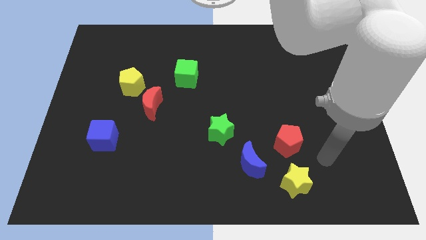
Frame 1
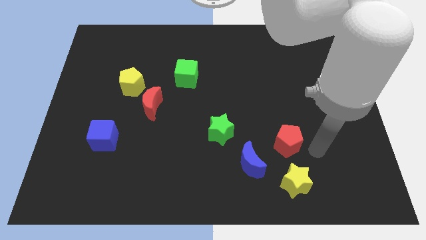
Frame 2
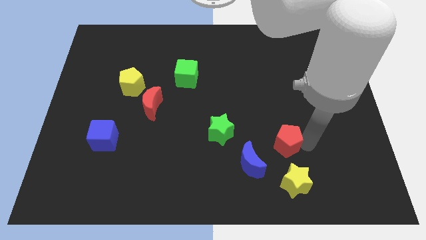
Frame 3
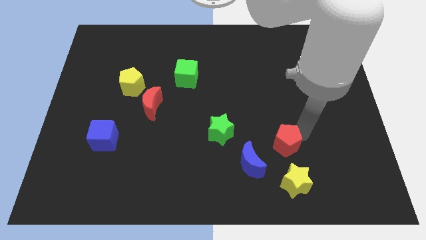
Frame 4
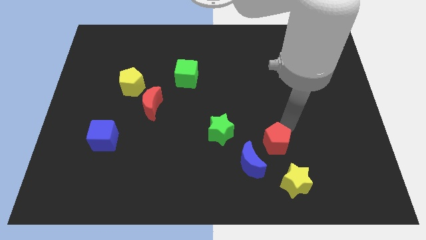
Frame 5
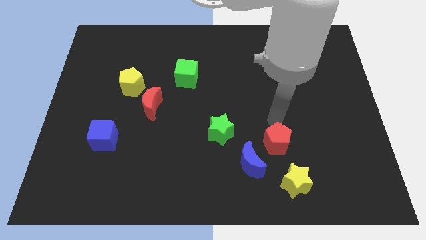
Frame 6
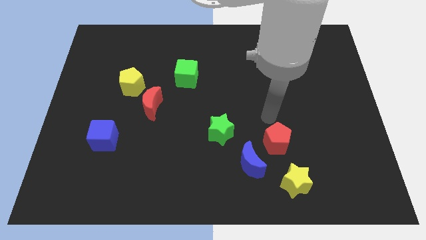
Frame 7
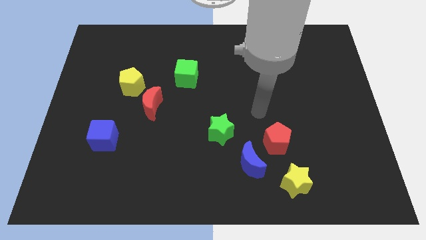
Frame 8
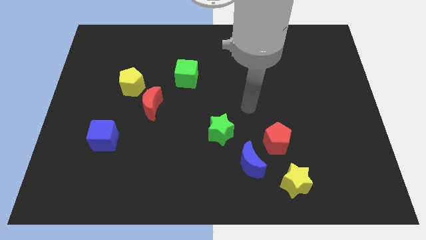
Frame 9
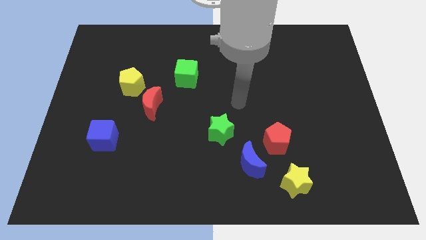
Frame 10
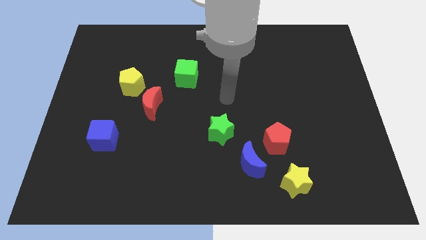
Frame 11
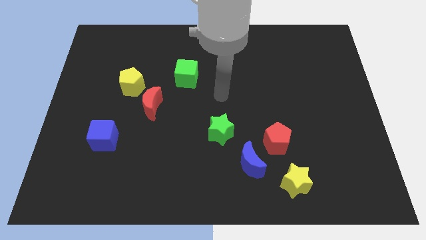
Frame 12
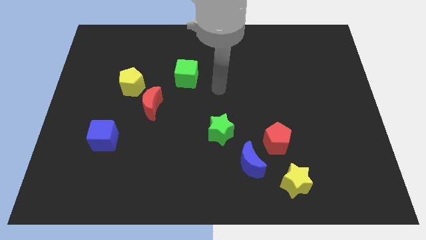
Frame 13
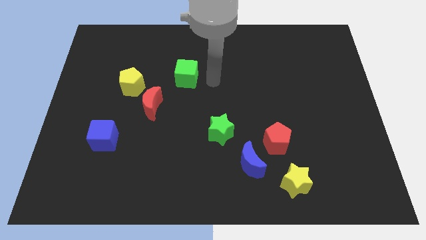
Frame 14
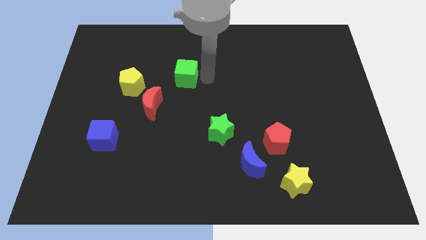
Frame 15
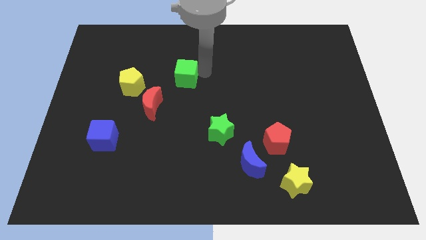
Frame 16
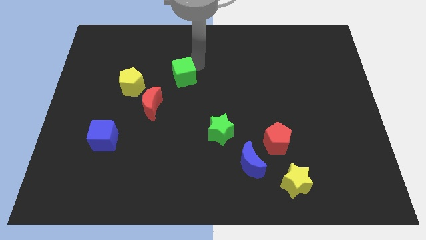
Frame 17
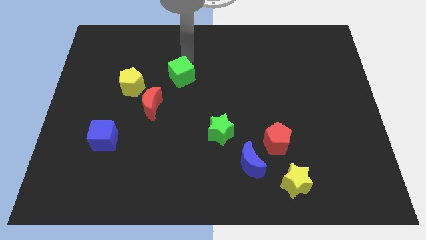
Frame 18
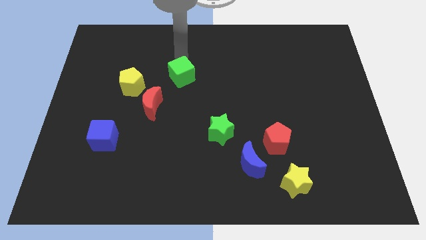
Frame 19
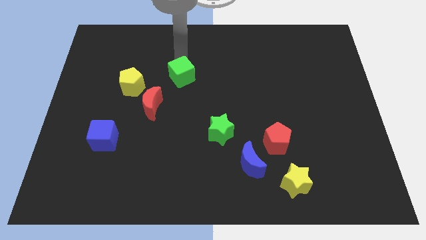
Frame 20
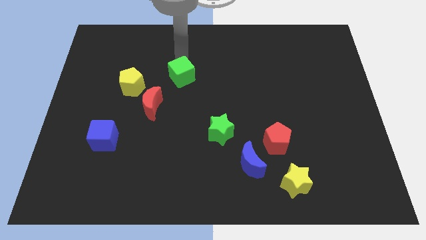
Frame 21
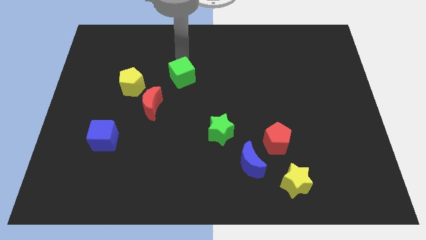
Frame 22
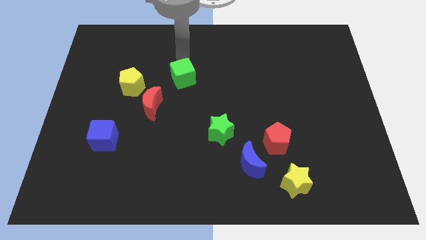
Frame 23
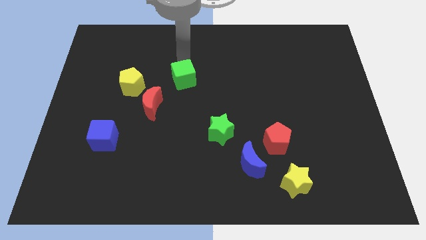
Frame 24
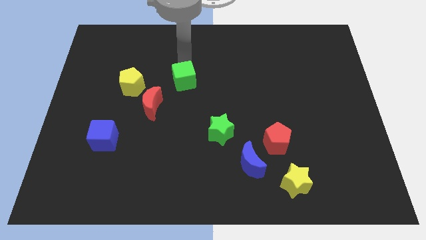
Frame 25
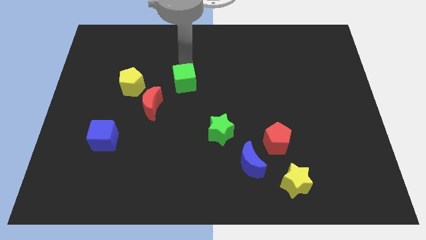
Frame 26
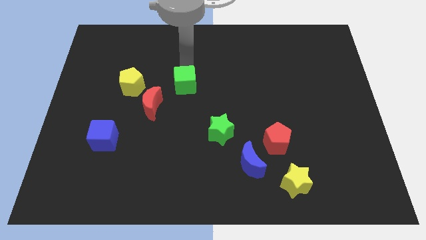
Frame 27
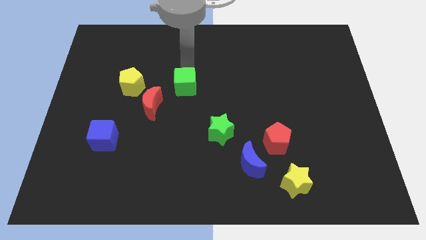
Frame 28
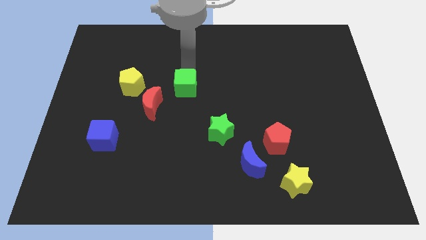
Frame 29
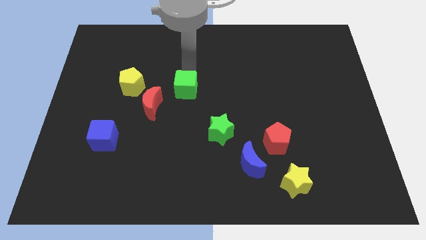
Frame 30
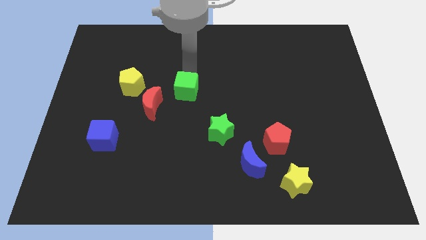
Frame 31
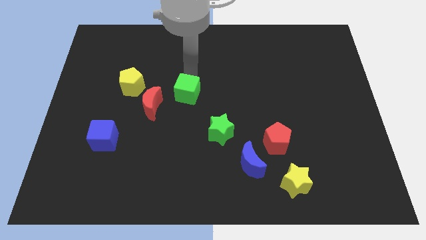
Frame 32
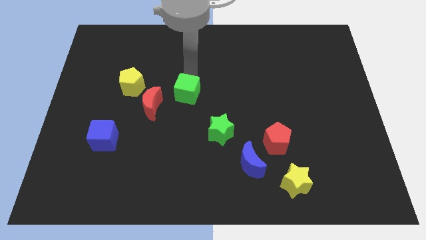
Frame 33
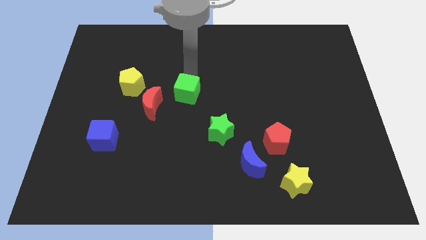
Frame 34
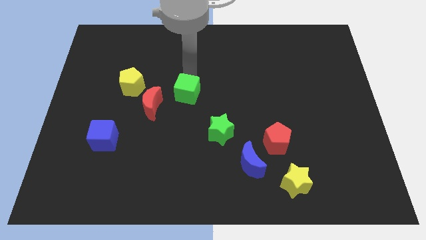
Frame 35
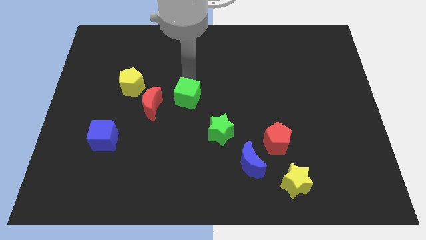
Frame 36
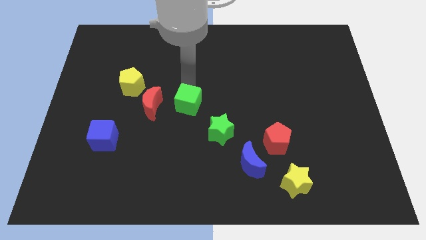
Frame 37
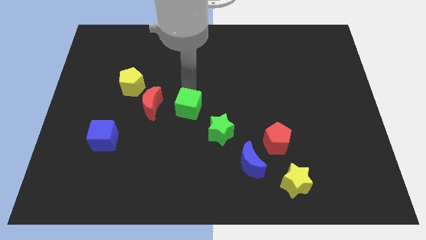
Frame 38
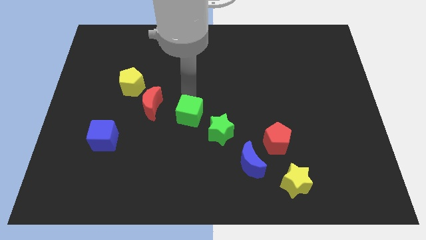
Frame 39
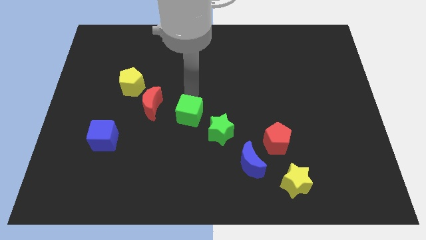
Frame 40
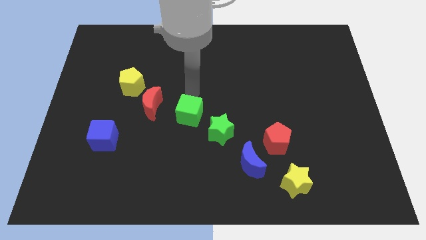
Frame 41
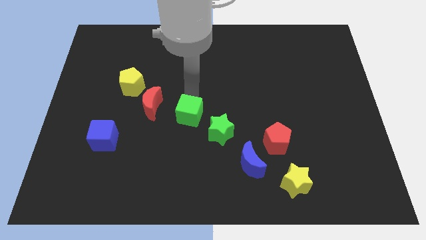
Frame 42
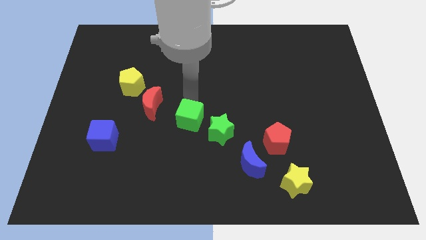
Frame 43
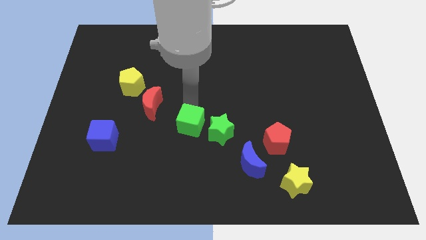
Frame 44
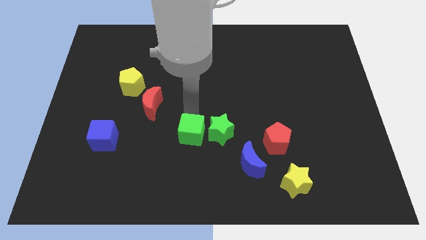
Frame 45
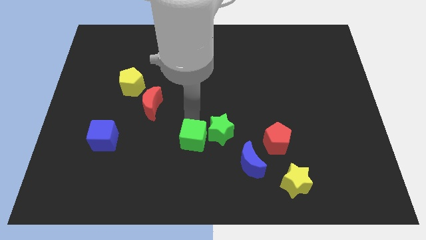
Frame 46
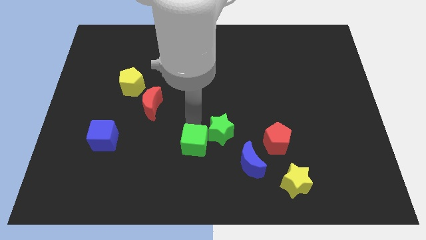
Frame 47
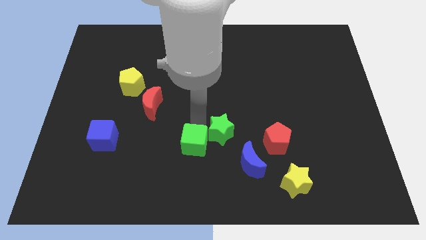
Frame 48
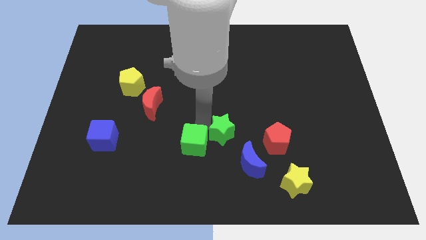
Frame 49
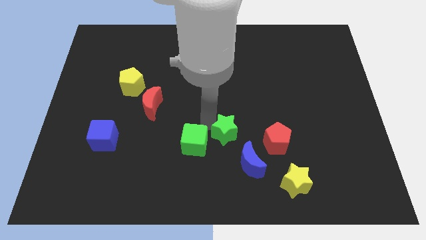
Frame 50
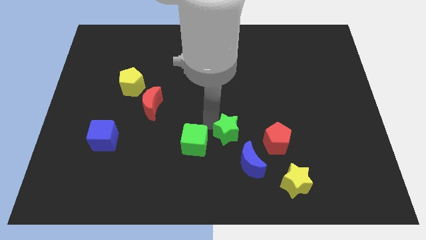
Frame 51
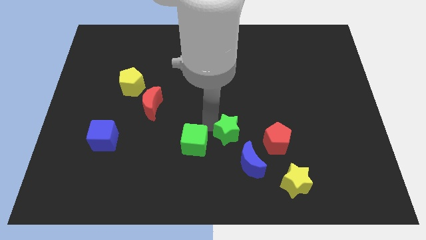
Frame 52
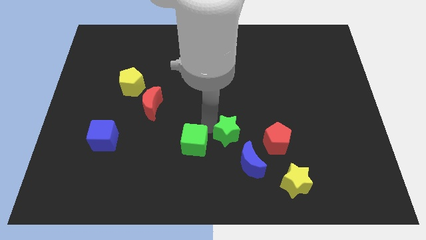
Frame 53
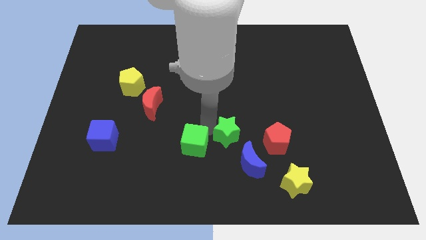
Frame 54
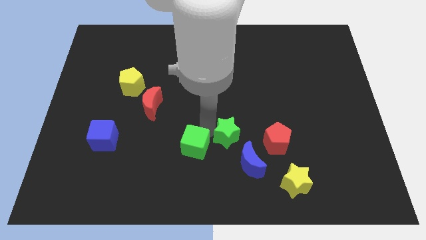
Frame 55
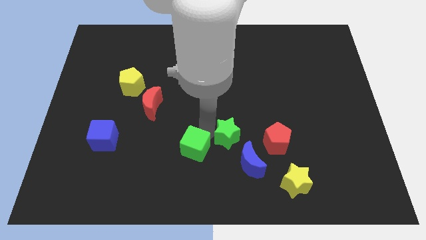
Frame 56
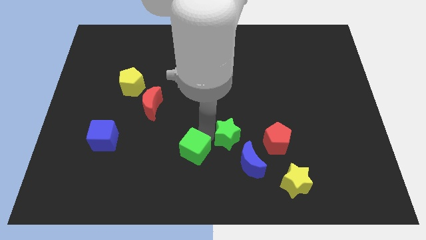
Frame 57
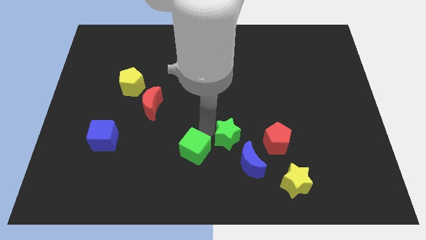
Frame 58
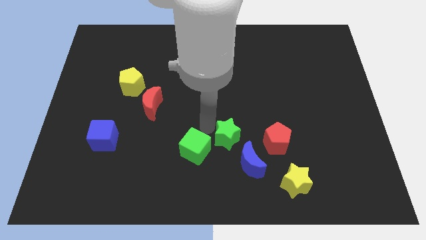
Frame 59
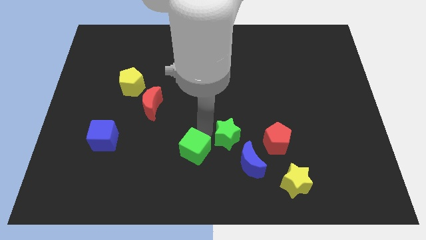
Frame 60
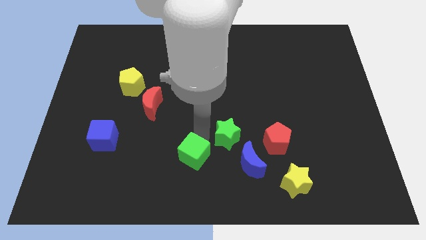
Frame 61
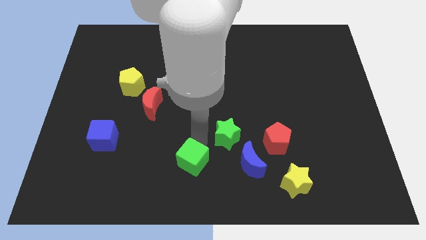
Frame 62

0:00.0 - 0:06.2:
move the green cube to the bottom

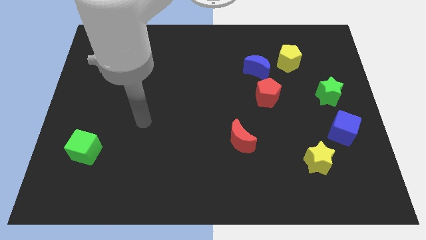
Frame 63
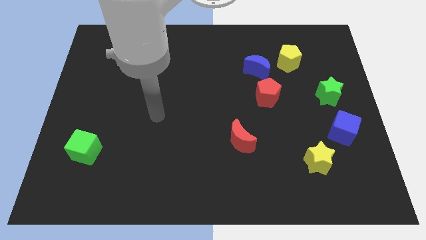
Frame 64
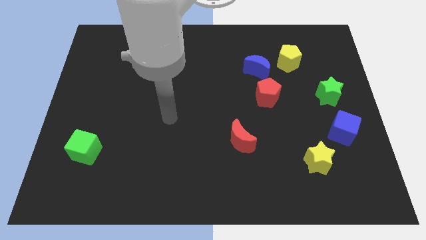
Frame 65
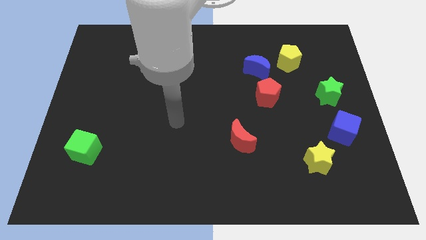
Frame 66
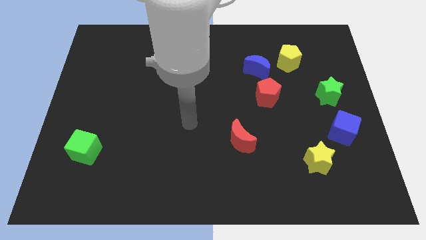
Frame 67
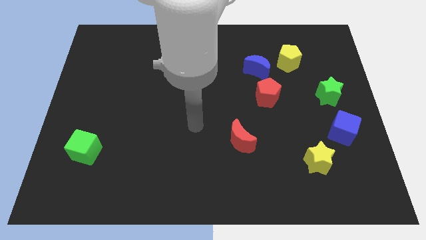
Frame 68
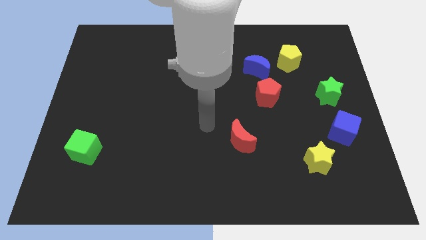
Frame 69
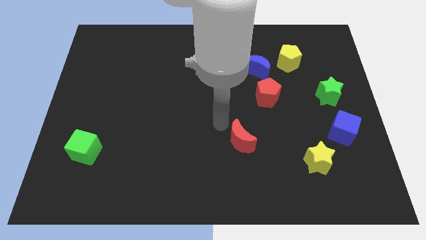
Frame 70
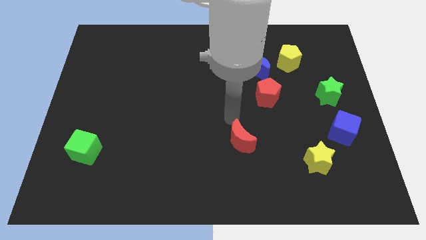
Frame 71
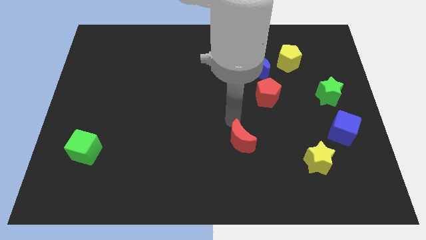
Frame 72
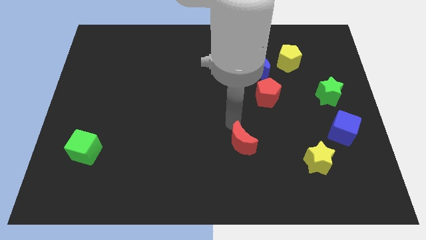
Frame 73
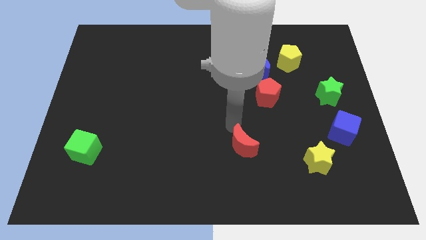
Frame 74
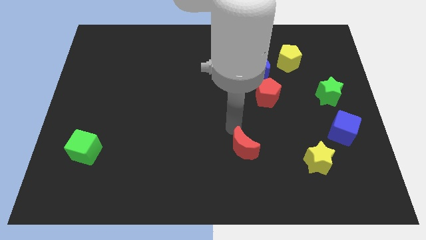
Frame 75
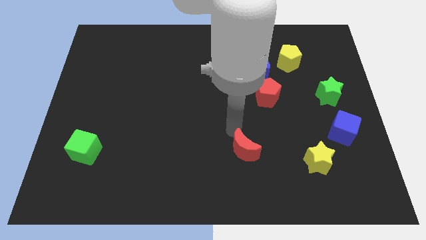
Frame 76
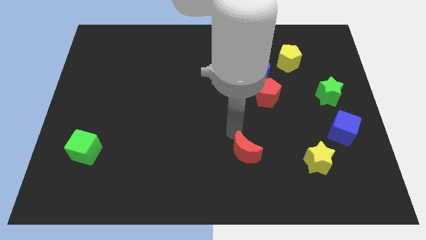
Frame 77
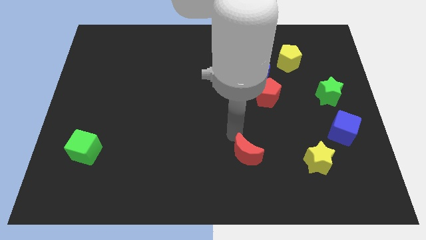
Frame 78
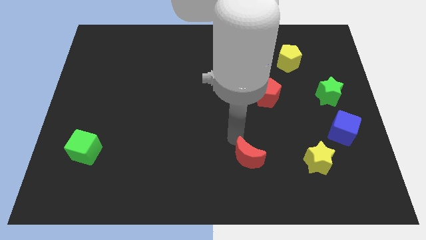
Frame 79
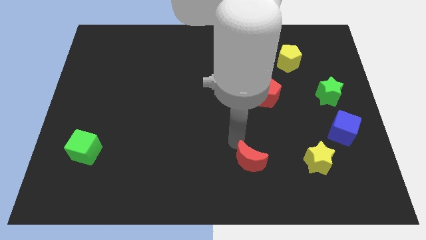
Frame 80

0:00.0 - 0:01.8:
slide the red moon to the bottom
